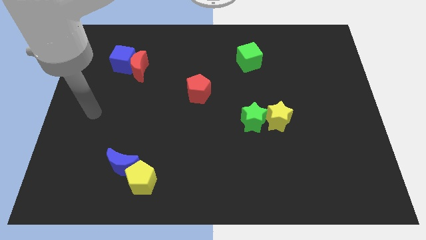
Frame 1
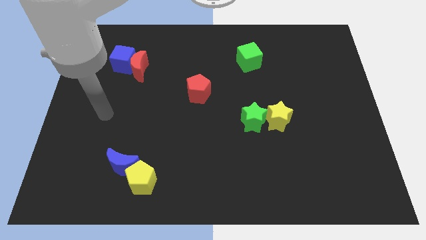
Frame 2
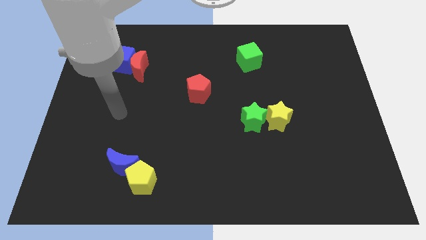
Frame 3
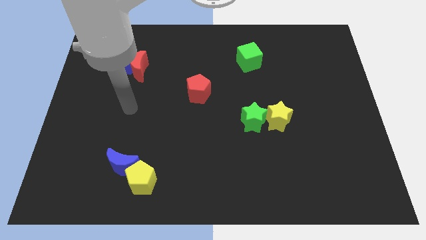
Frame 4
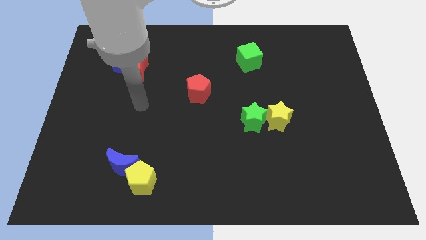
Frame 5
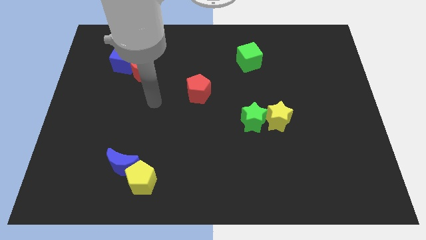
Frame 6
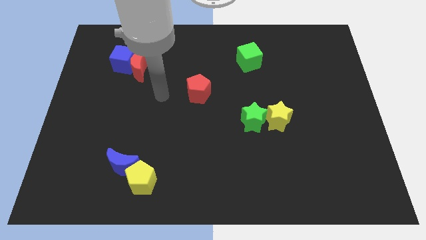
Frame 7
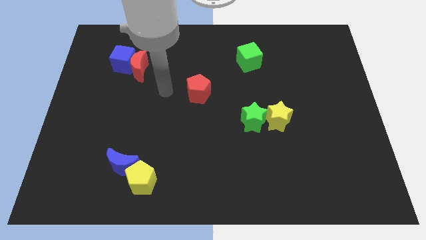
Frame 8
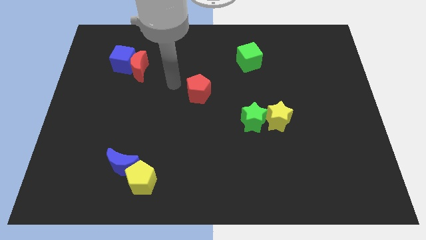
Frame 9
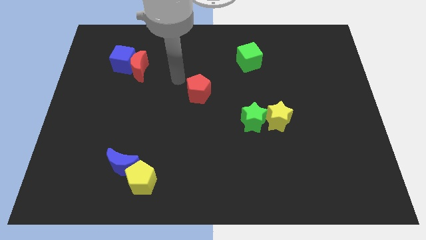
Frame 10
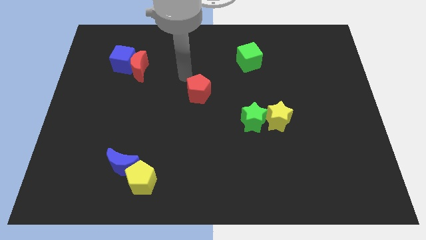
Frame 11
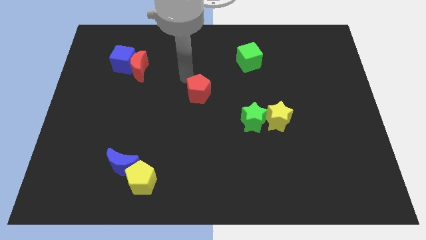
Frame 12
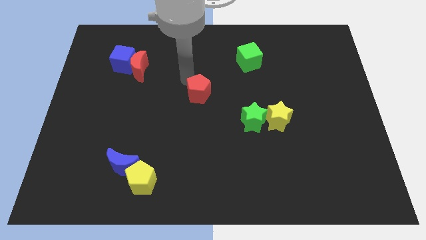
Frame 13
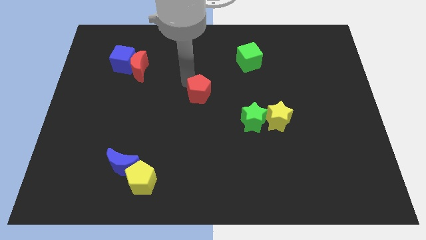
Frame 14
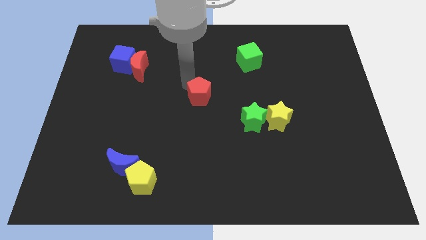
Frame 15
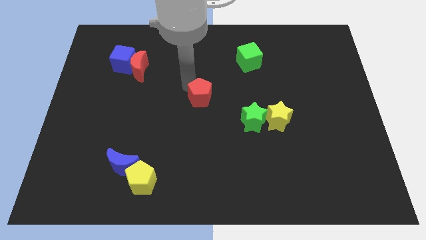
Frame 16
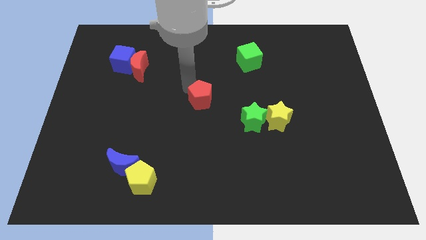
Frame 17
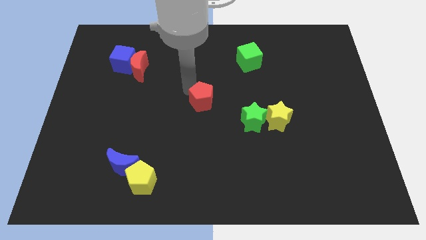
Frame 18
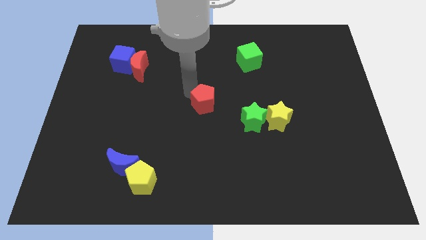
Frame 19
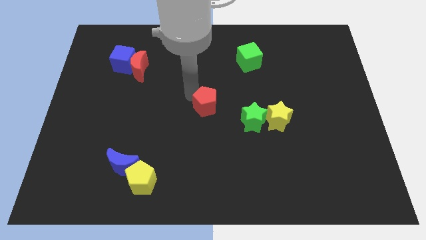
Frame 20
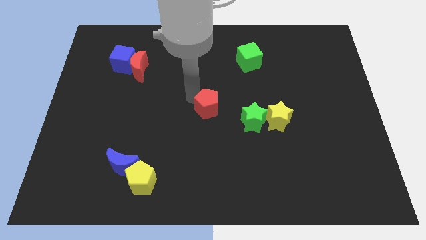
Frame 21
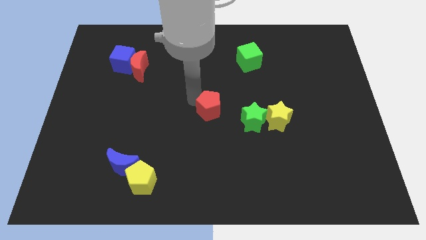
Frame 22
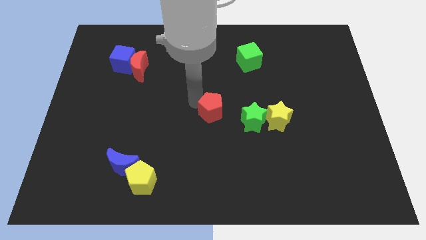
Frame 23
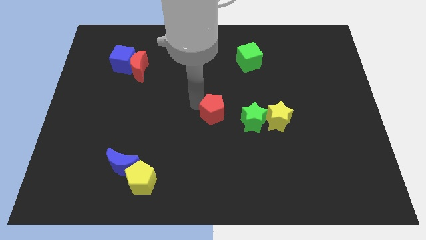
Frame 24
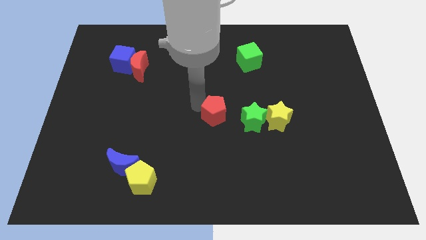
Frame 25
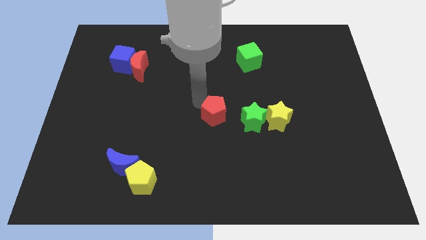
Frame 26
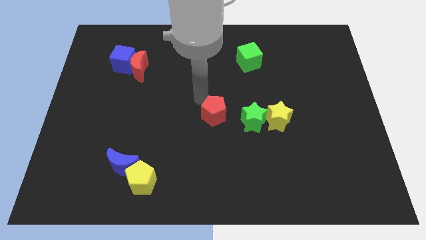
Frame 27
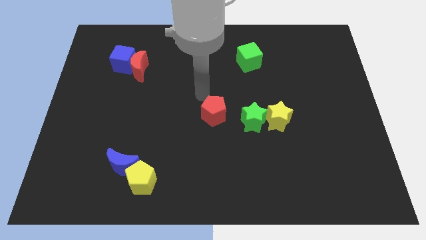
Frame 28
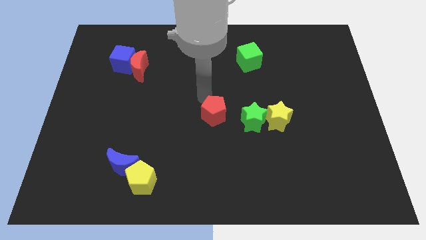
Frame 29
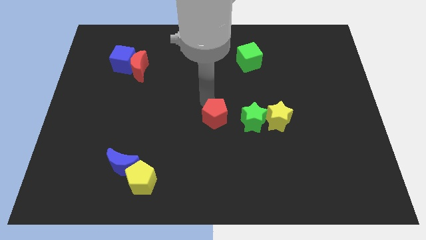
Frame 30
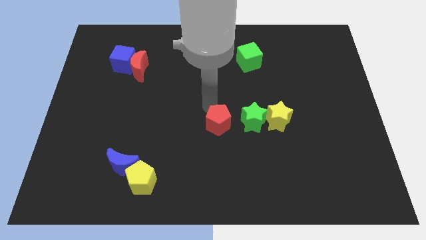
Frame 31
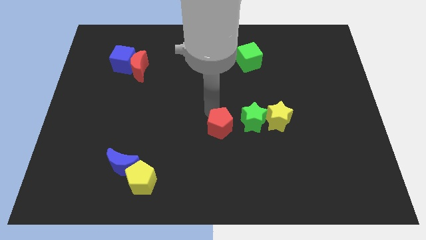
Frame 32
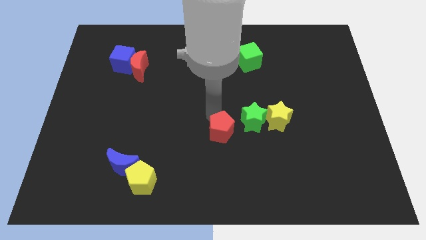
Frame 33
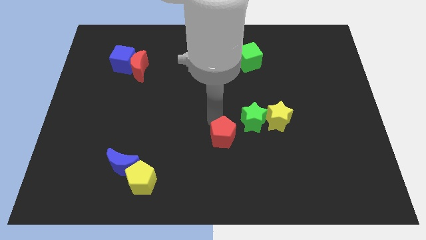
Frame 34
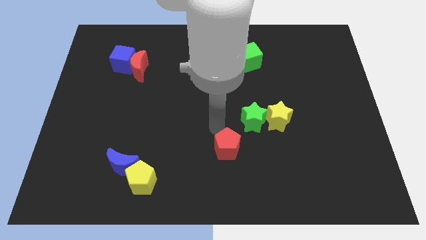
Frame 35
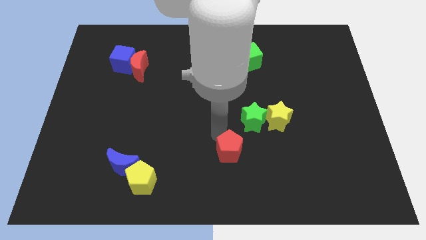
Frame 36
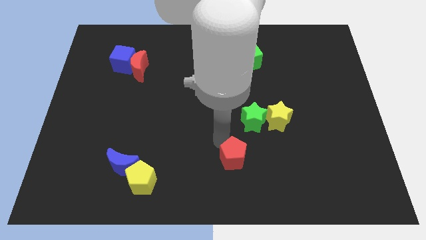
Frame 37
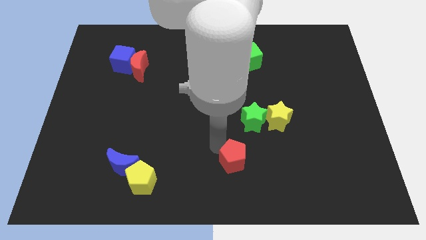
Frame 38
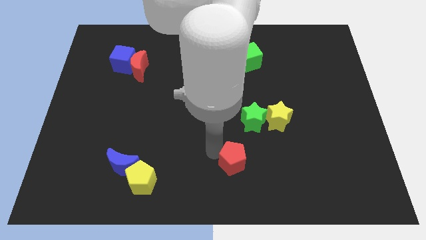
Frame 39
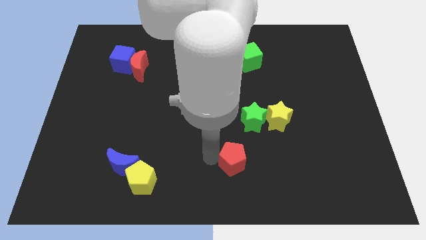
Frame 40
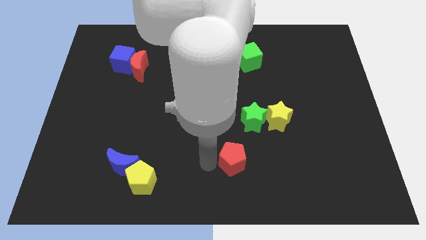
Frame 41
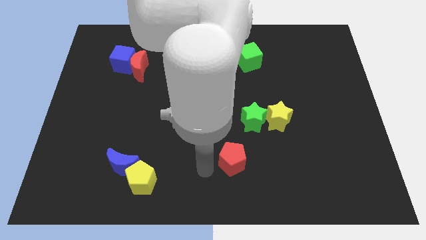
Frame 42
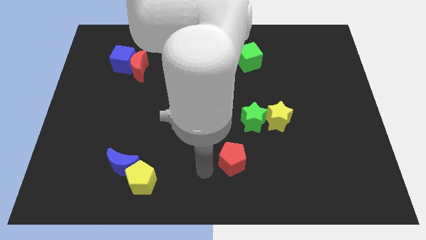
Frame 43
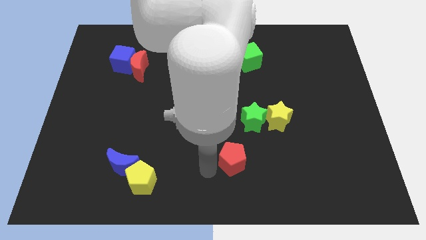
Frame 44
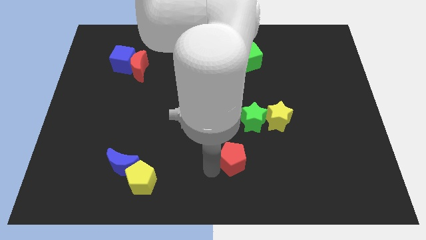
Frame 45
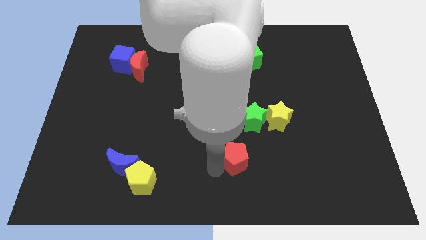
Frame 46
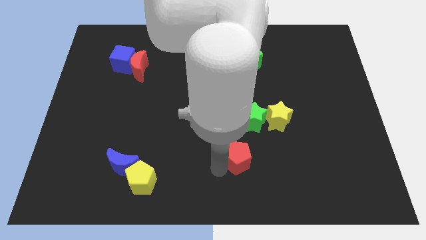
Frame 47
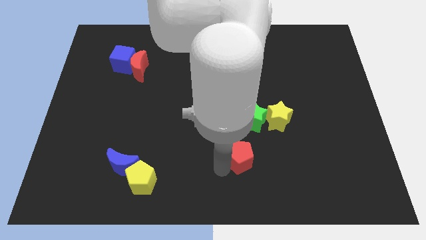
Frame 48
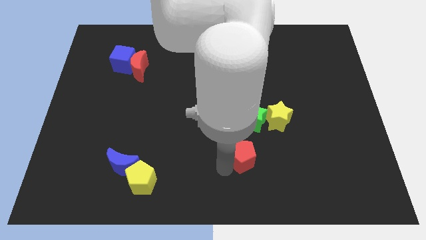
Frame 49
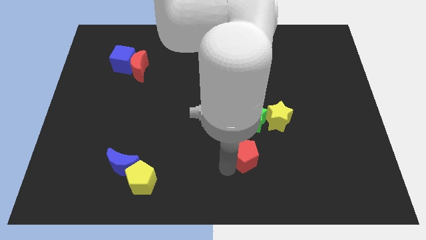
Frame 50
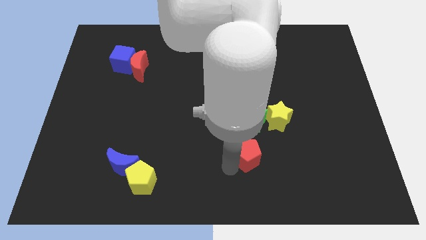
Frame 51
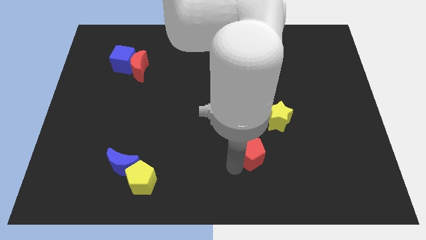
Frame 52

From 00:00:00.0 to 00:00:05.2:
push the red pentagon diagonally down and right

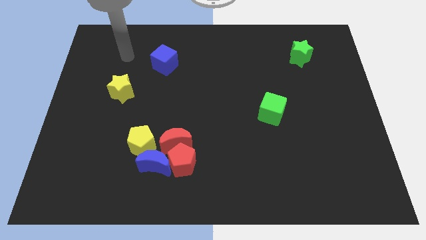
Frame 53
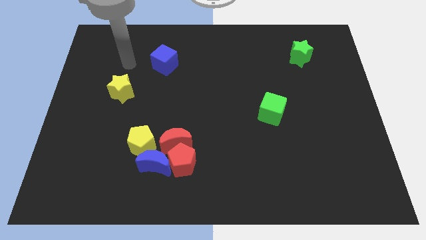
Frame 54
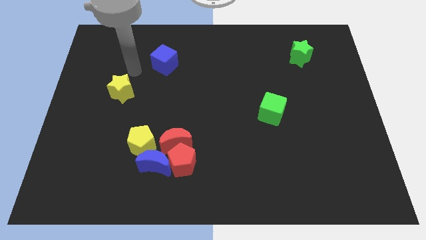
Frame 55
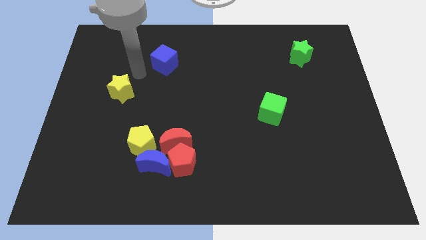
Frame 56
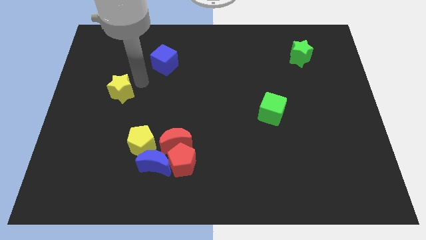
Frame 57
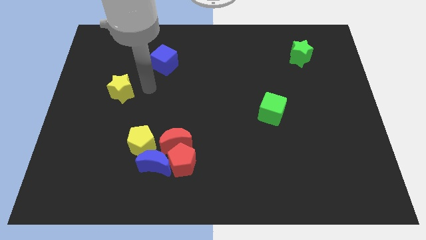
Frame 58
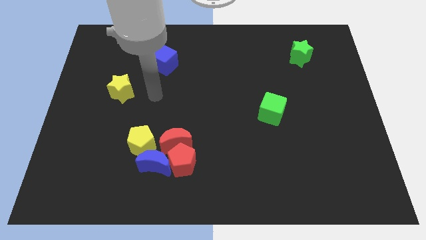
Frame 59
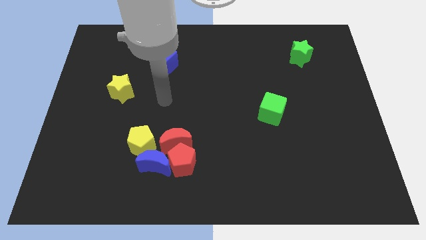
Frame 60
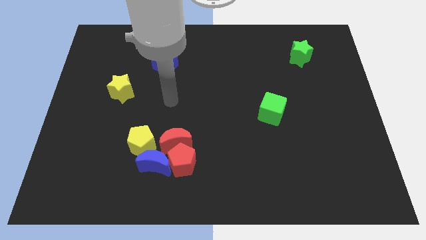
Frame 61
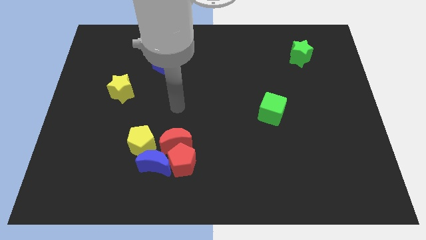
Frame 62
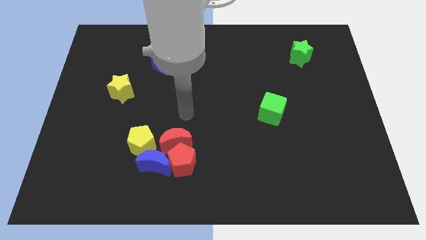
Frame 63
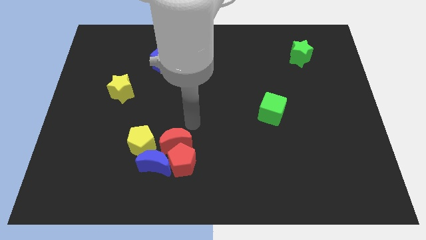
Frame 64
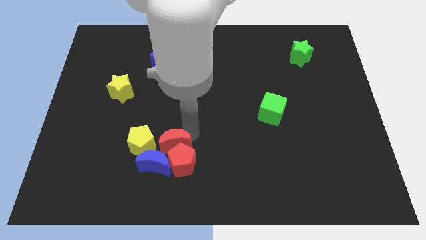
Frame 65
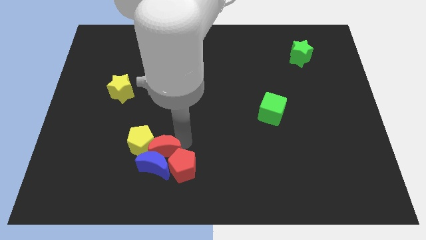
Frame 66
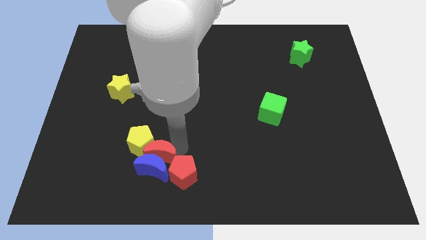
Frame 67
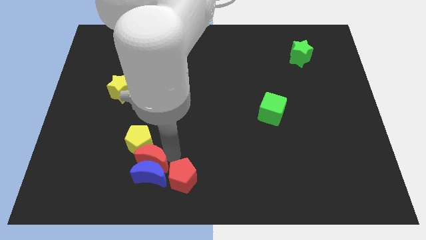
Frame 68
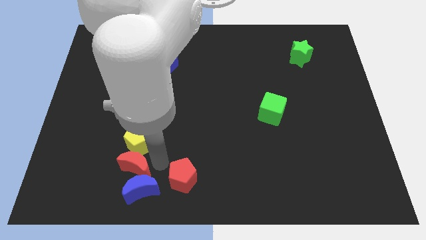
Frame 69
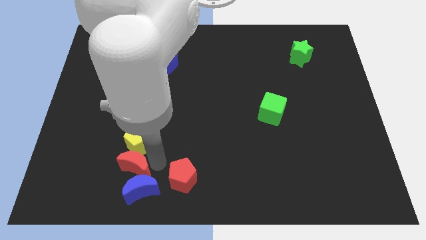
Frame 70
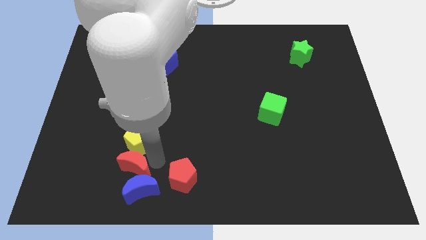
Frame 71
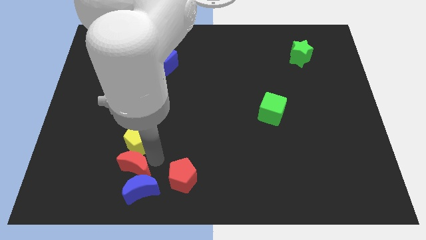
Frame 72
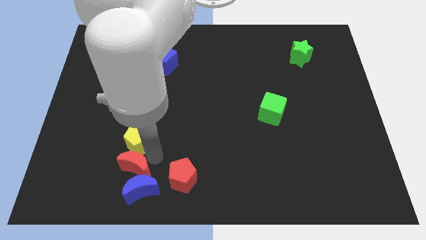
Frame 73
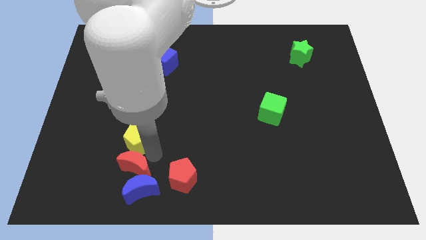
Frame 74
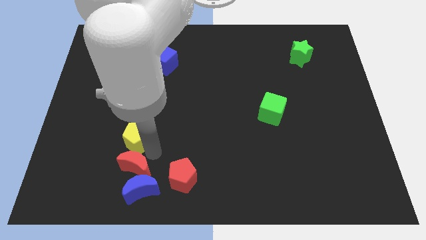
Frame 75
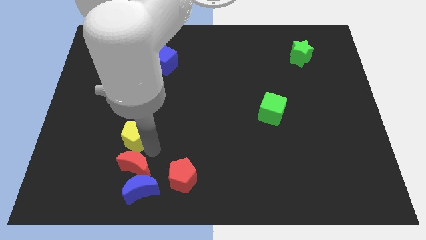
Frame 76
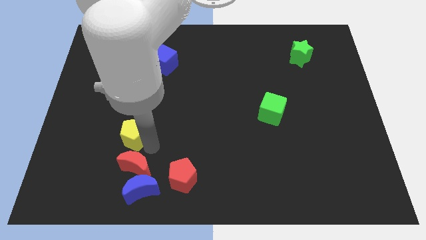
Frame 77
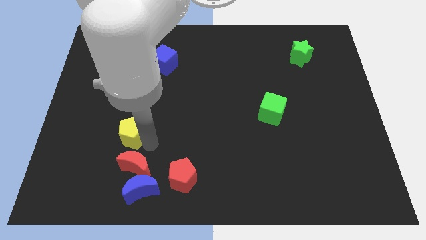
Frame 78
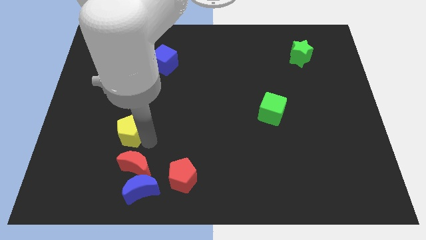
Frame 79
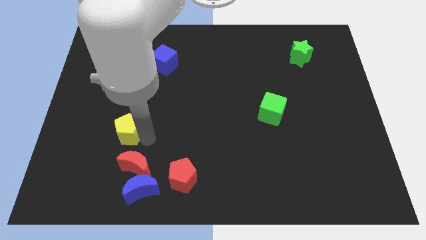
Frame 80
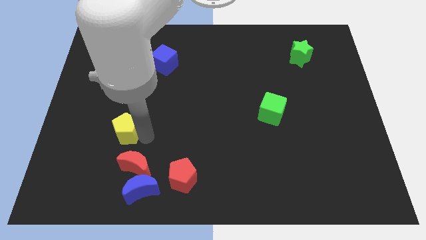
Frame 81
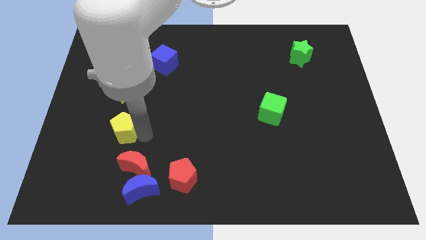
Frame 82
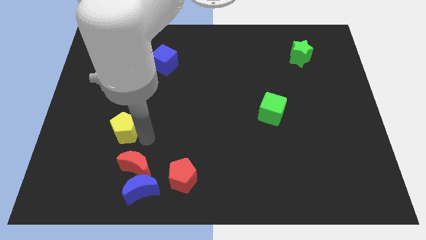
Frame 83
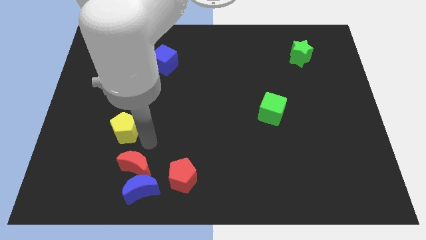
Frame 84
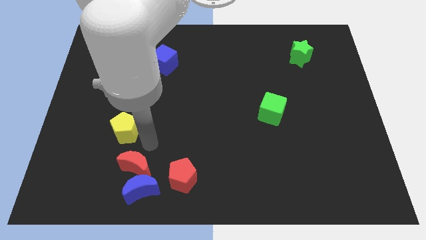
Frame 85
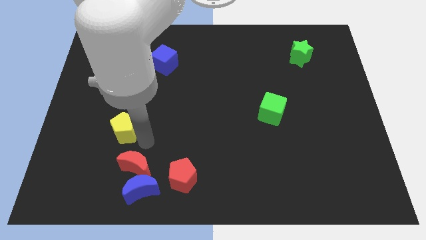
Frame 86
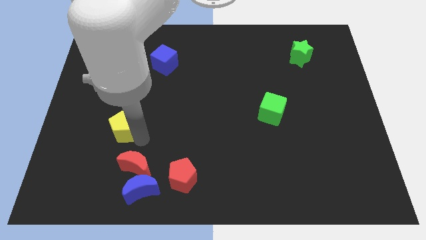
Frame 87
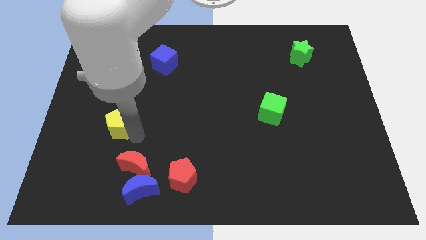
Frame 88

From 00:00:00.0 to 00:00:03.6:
slide the yellow pentagon upwards and left diagonally slightly
